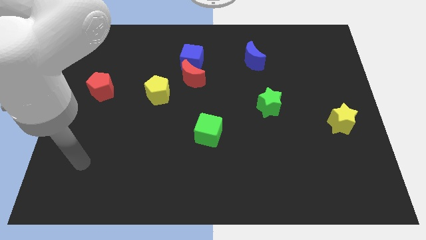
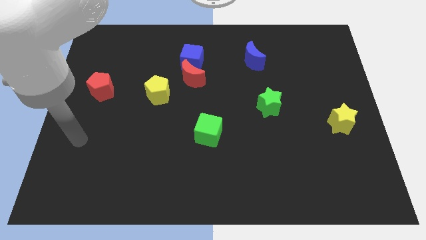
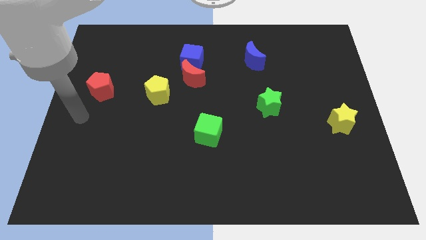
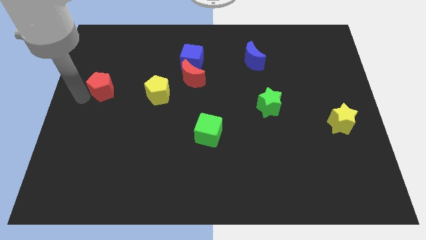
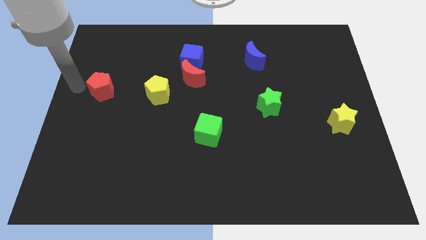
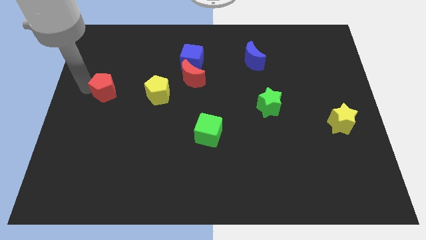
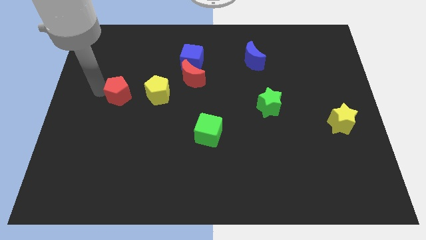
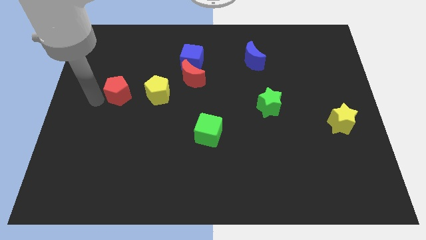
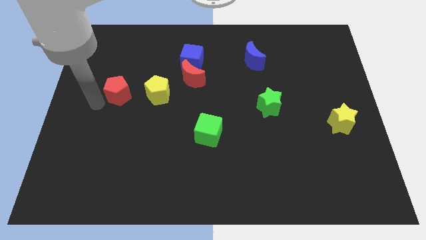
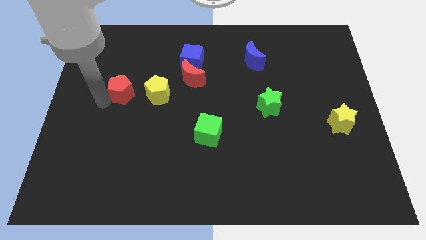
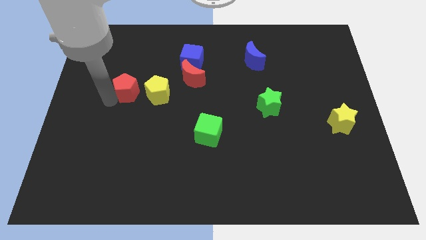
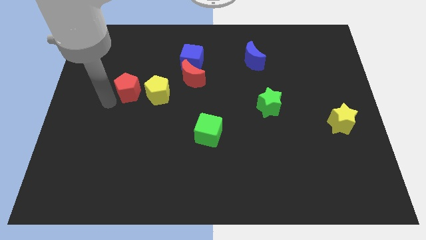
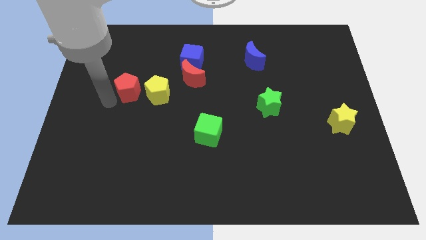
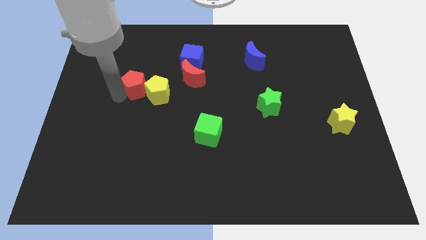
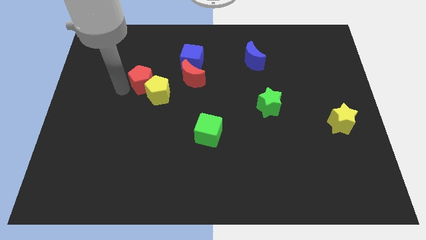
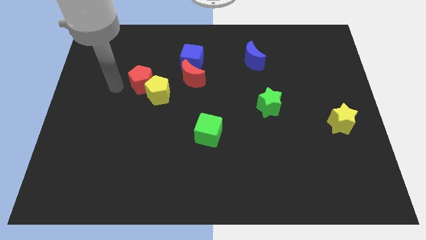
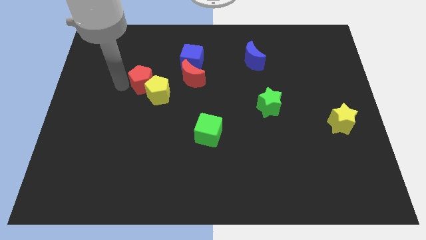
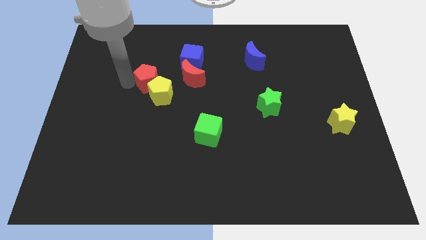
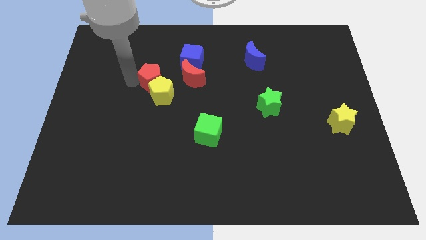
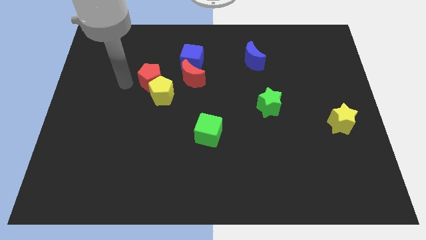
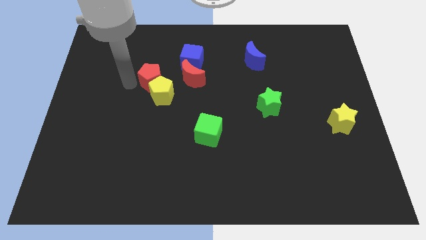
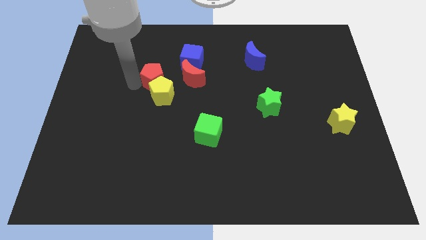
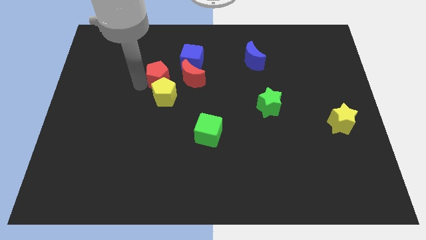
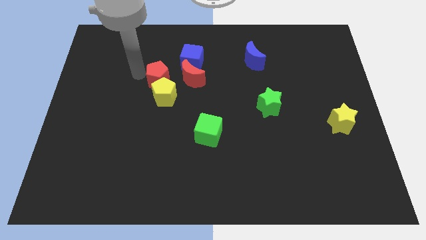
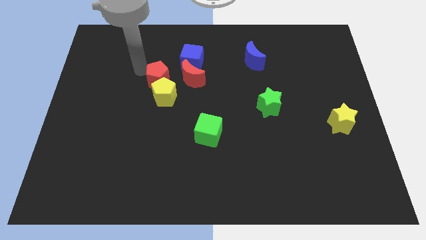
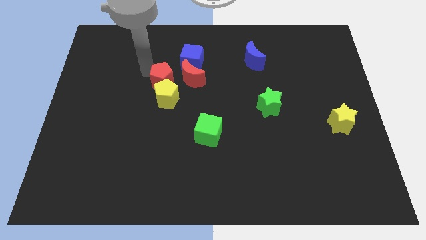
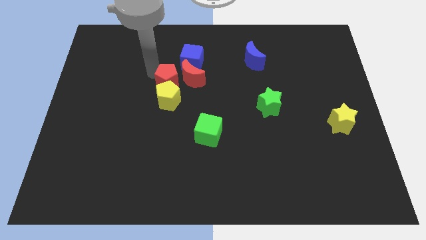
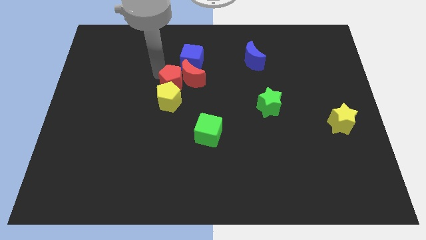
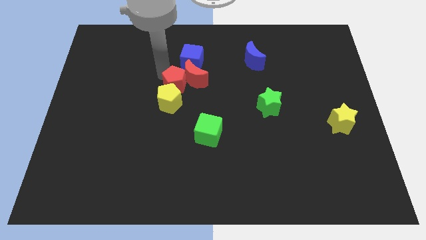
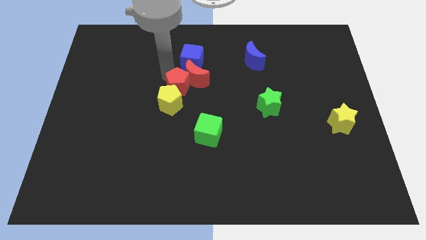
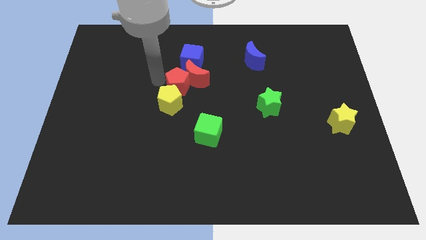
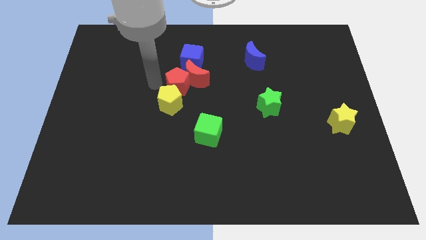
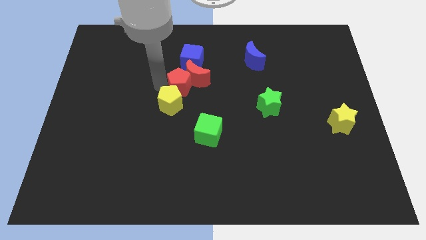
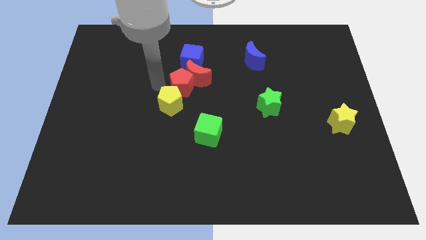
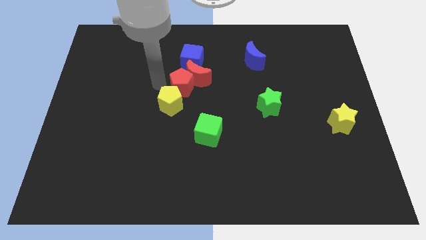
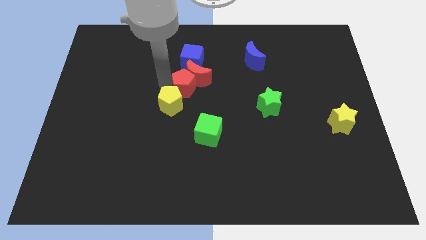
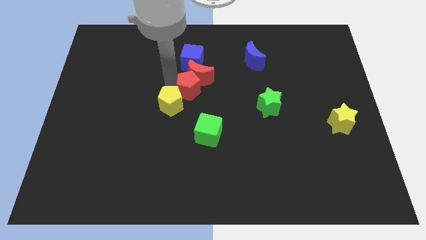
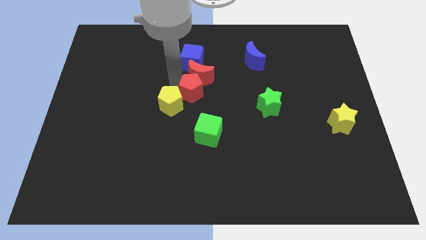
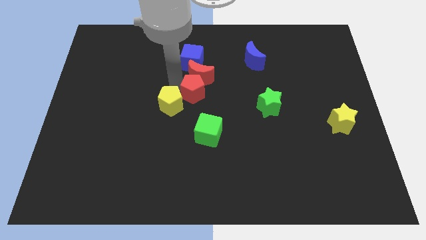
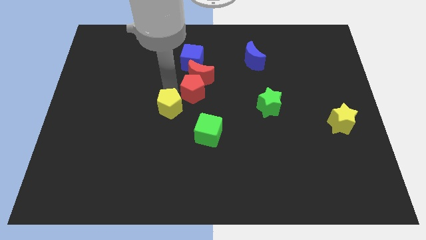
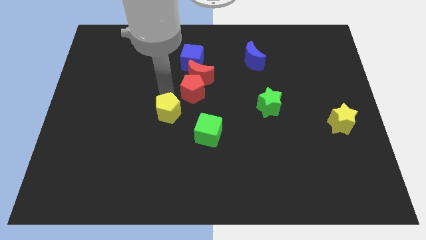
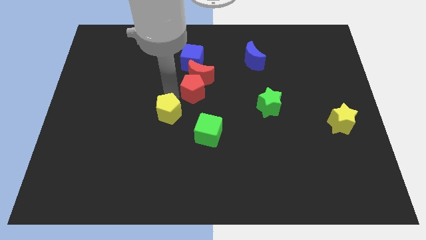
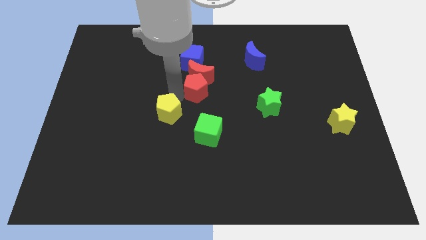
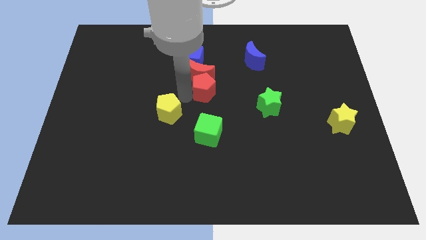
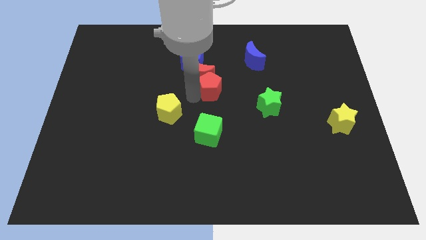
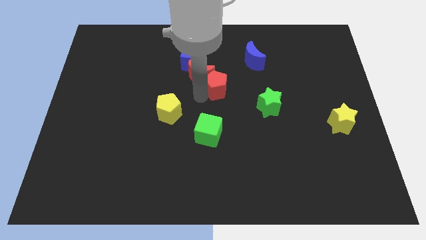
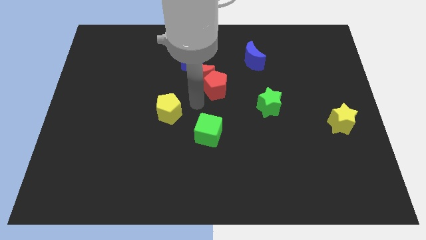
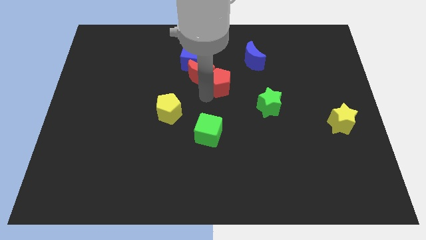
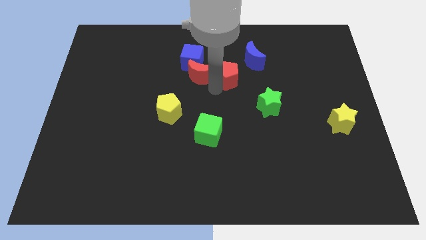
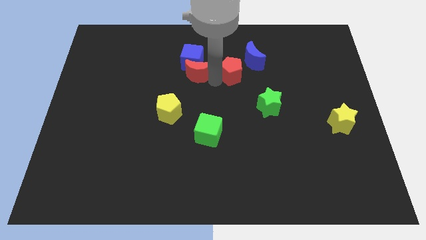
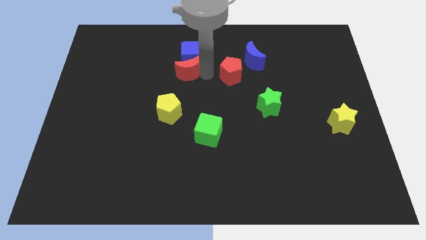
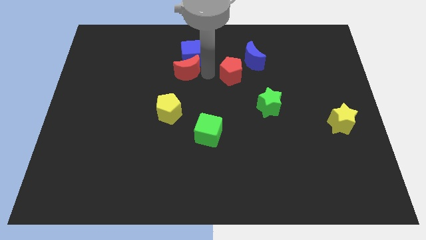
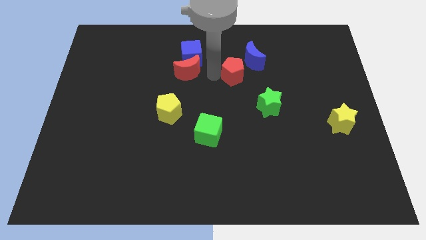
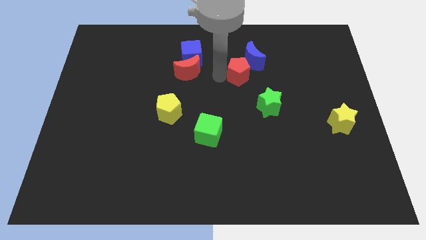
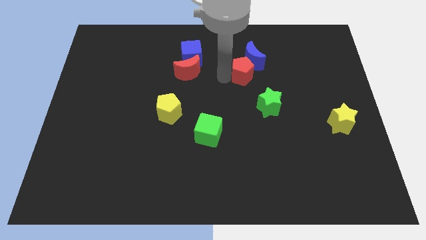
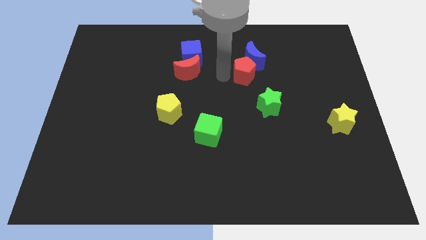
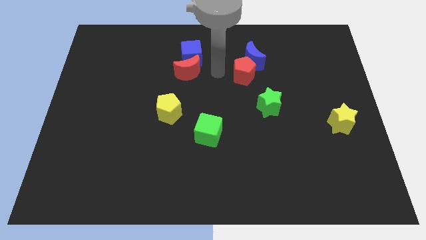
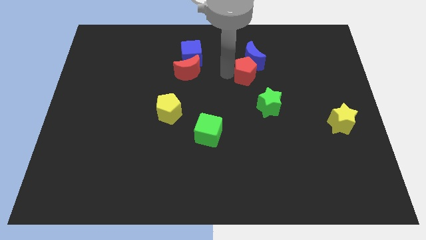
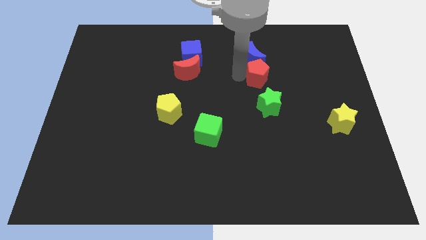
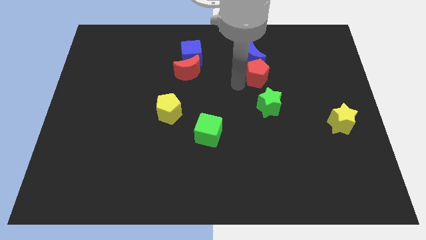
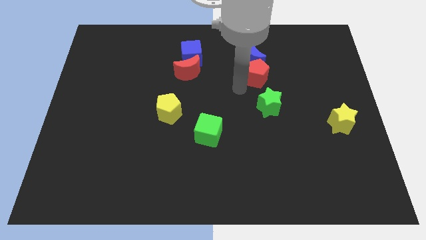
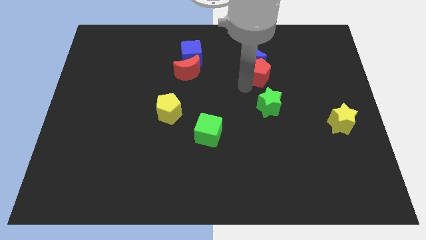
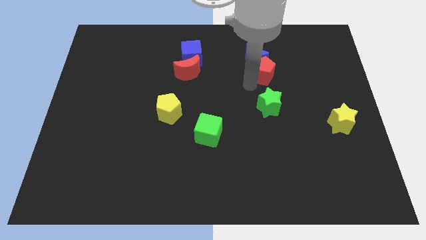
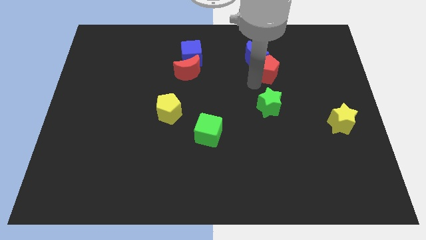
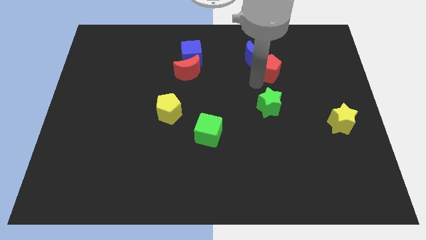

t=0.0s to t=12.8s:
push the red pentagon to the right side of the blue moon

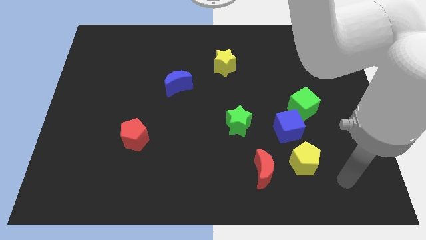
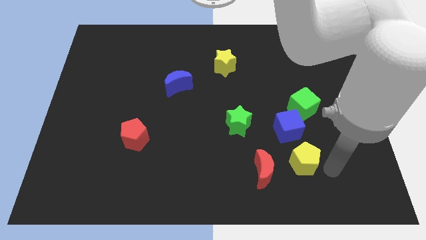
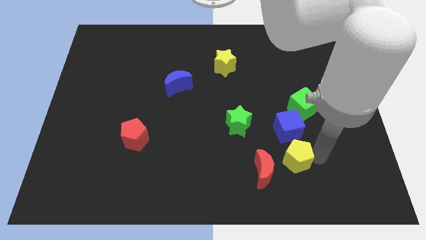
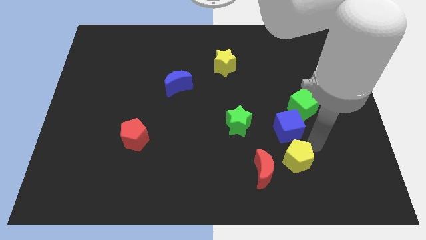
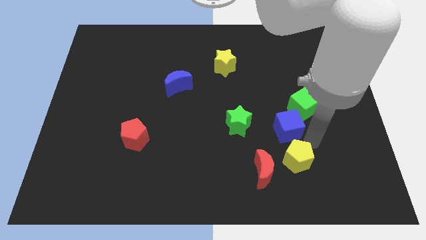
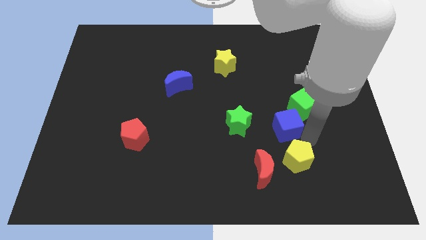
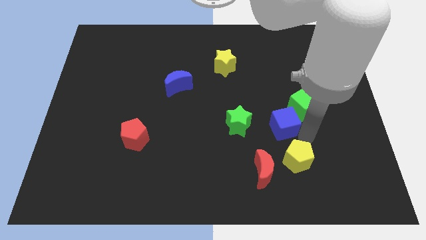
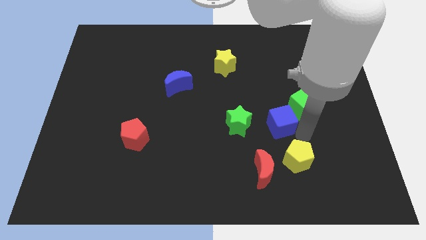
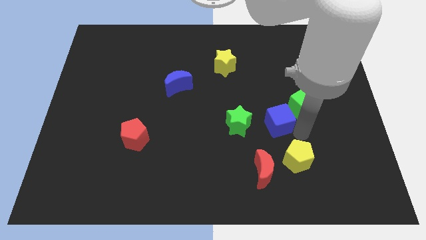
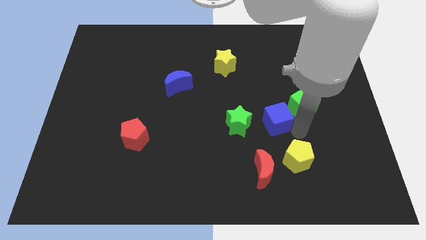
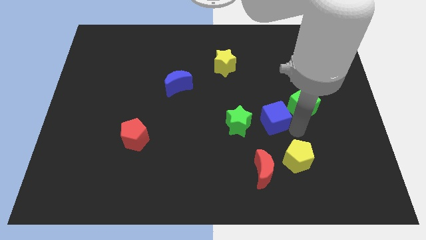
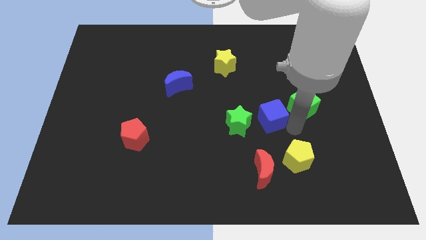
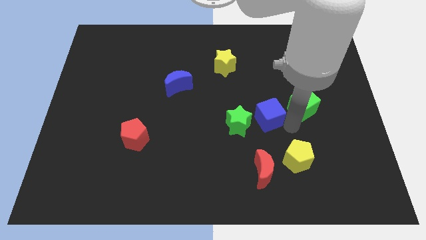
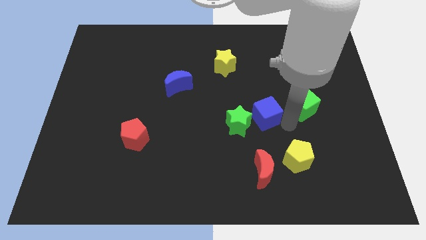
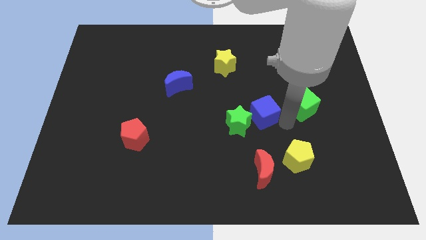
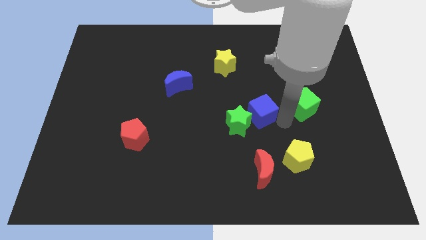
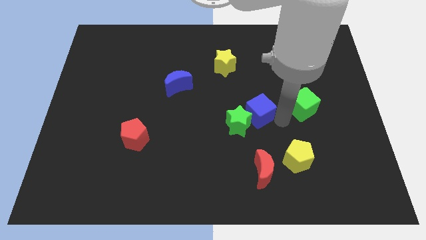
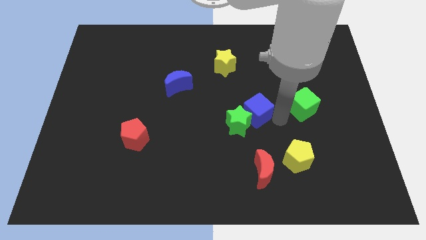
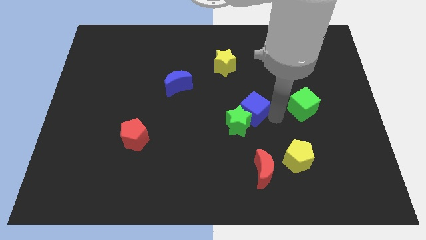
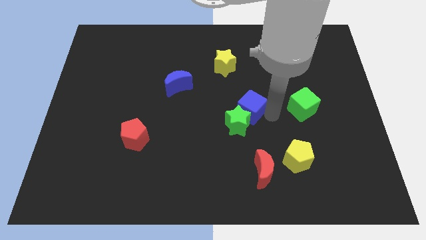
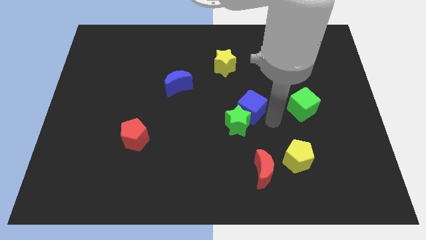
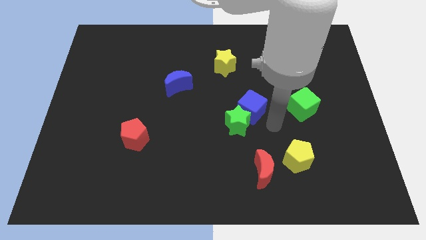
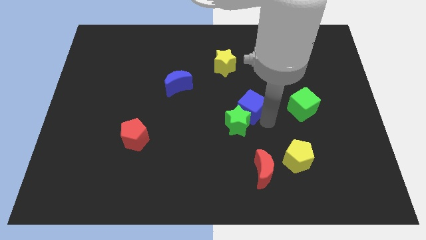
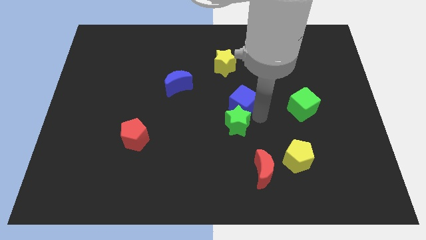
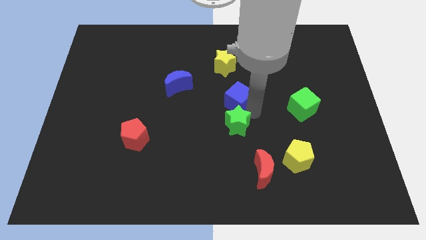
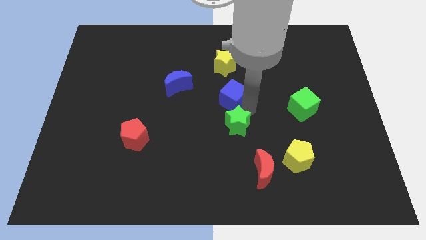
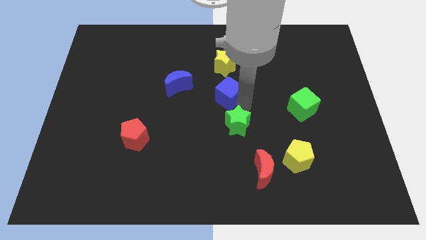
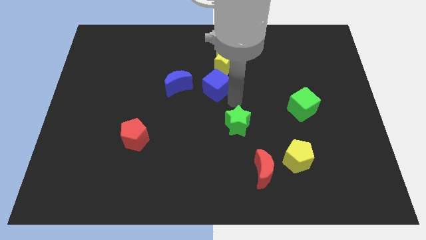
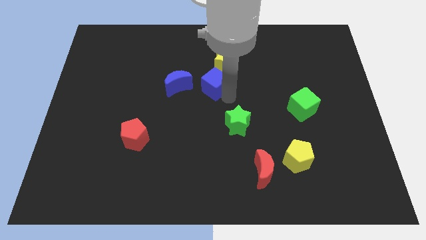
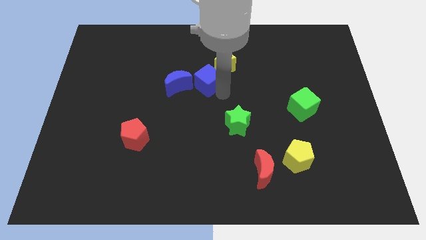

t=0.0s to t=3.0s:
slide the blue cube diagonally up and to the right of the blue moon
